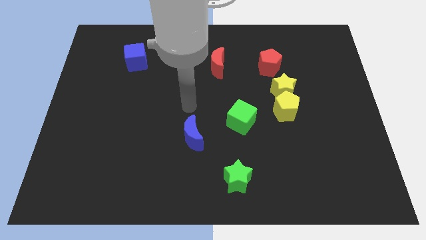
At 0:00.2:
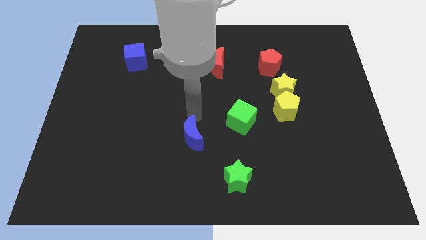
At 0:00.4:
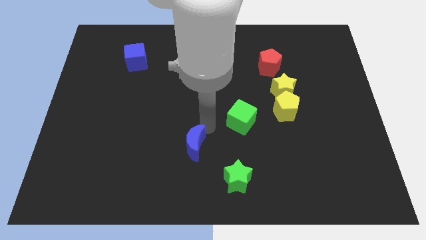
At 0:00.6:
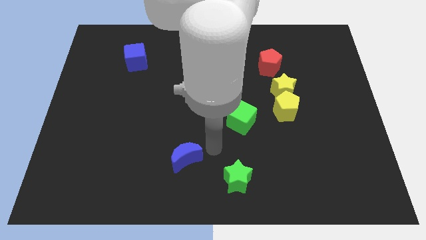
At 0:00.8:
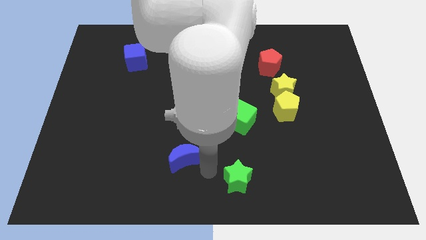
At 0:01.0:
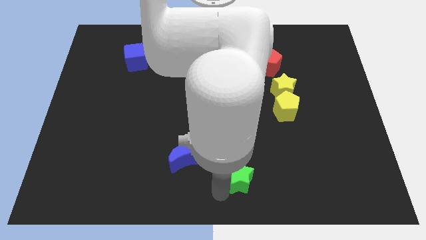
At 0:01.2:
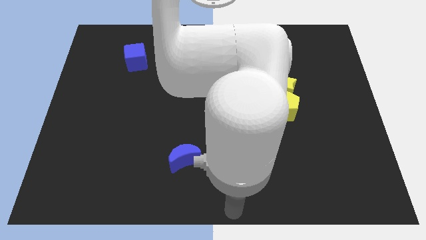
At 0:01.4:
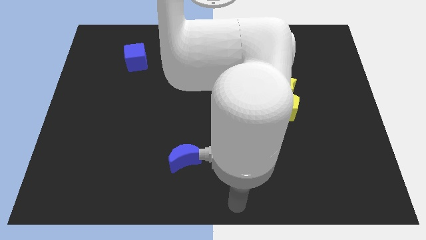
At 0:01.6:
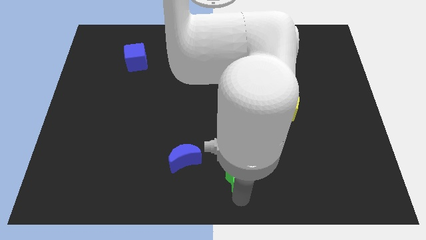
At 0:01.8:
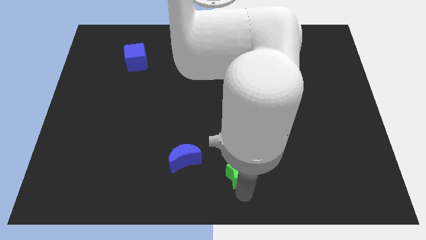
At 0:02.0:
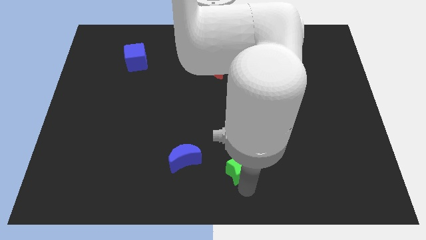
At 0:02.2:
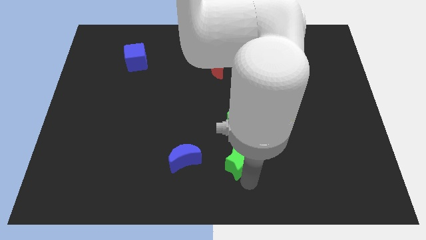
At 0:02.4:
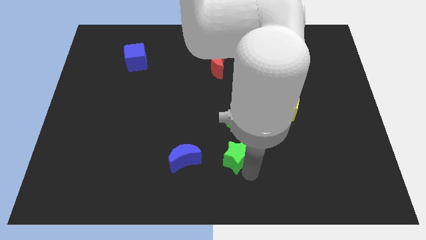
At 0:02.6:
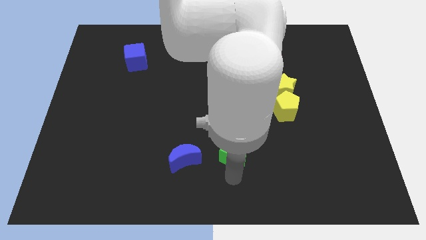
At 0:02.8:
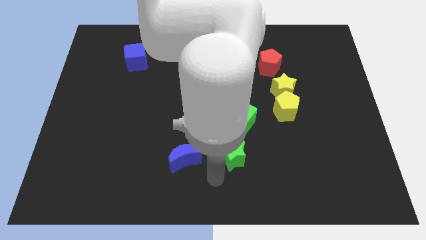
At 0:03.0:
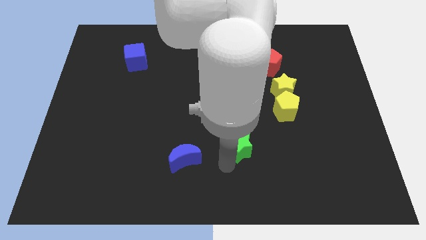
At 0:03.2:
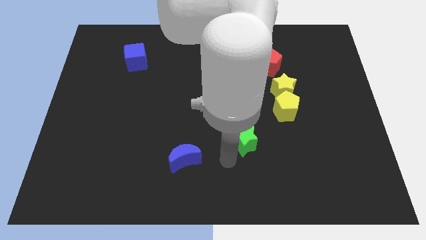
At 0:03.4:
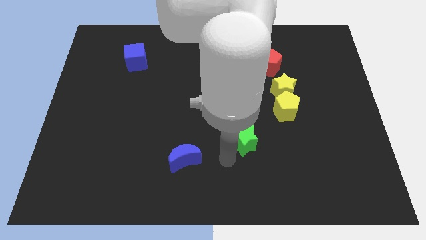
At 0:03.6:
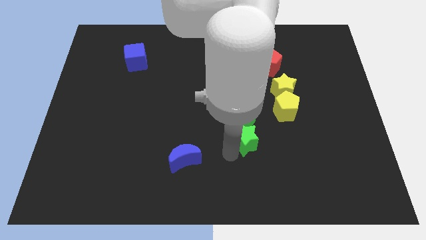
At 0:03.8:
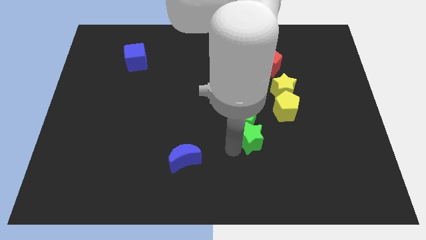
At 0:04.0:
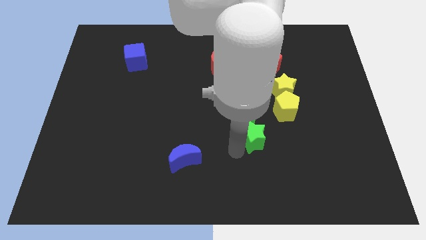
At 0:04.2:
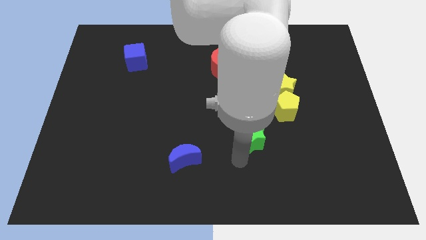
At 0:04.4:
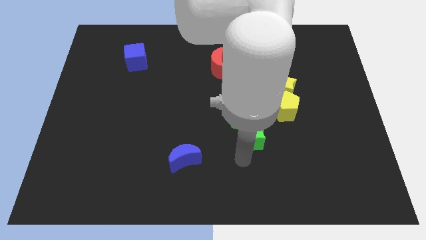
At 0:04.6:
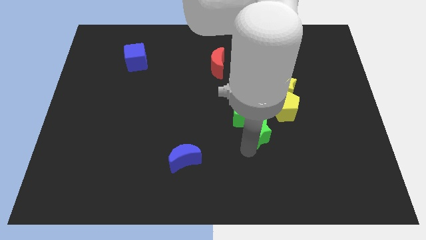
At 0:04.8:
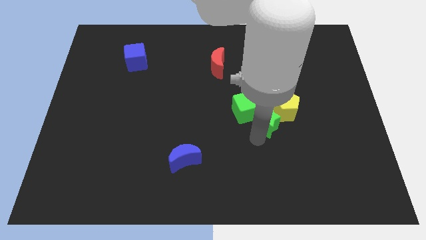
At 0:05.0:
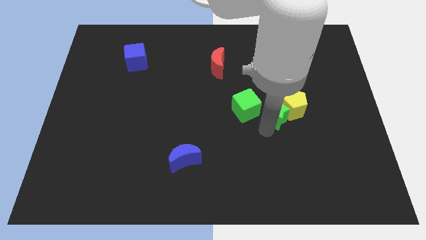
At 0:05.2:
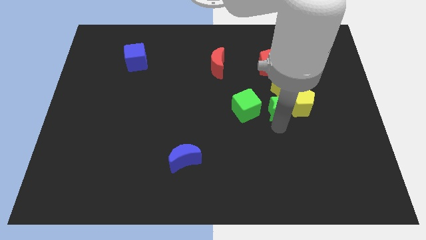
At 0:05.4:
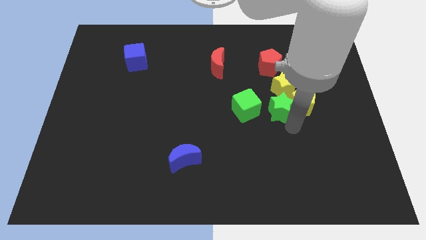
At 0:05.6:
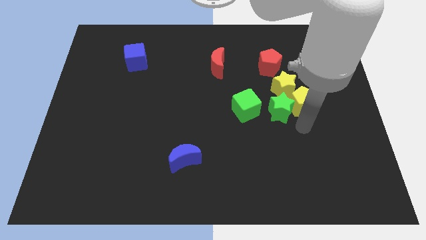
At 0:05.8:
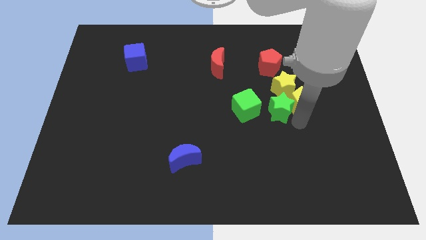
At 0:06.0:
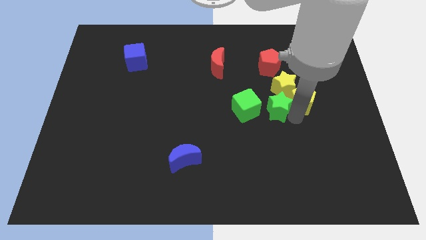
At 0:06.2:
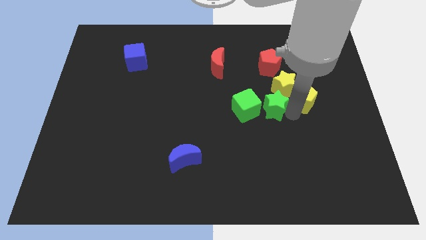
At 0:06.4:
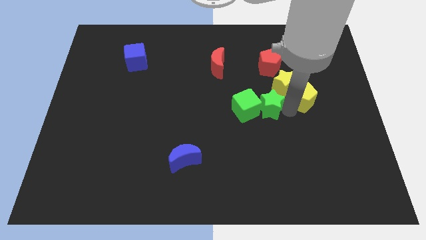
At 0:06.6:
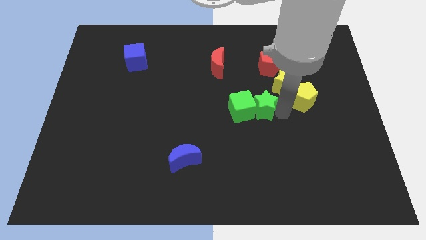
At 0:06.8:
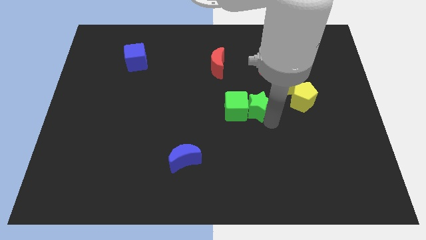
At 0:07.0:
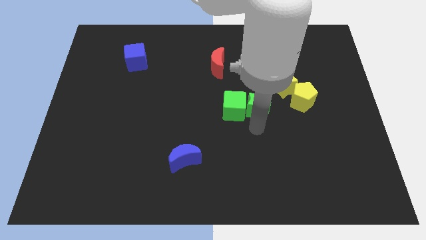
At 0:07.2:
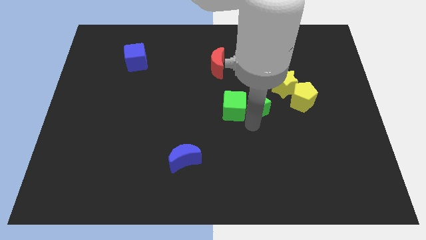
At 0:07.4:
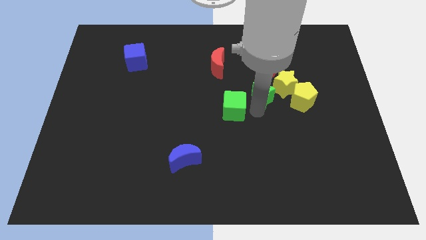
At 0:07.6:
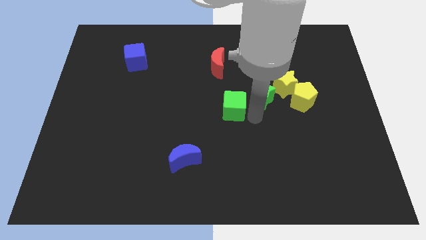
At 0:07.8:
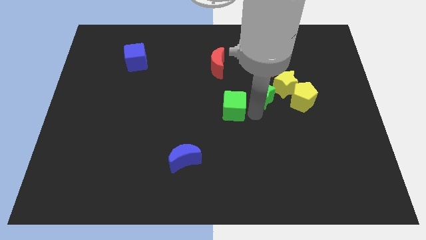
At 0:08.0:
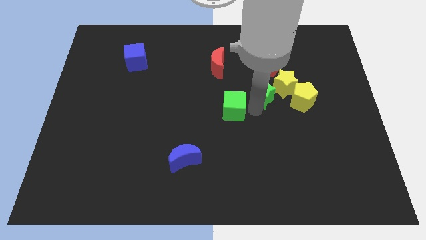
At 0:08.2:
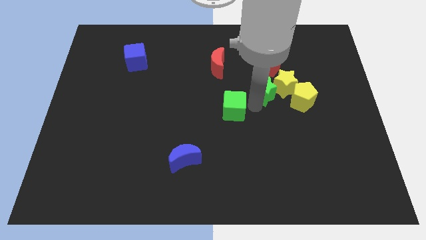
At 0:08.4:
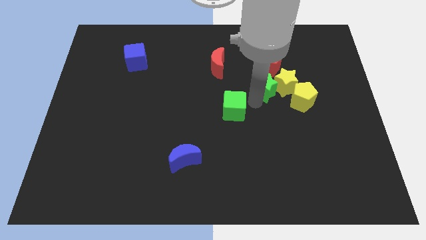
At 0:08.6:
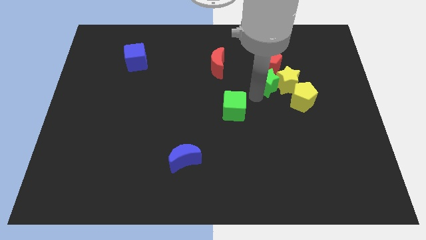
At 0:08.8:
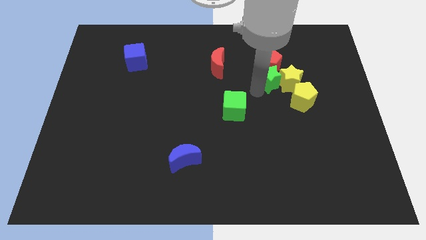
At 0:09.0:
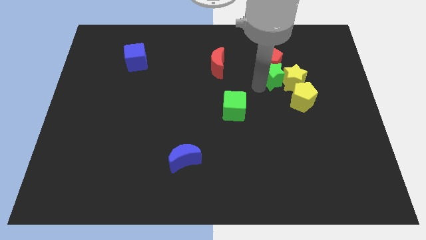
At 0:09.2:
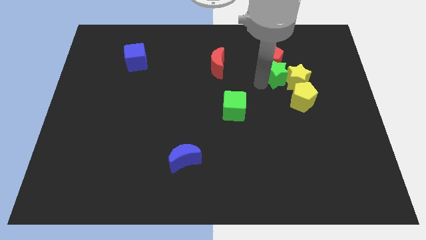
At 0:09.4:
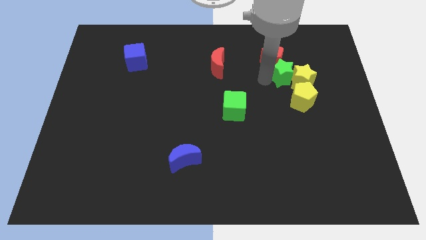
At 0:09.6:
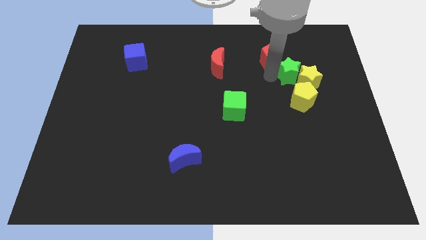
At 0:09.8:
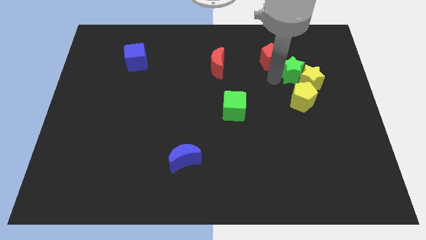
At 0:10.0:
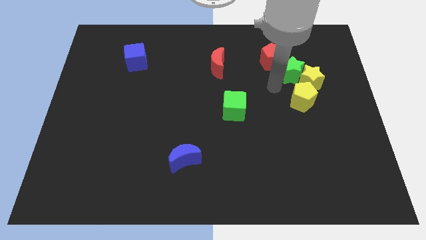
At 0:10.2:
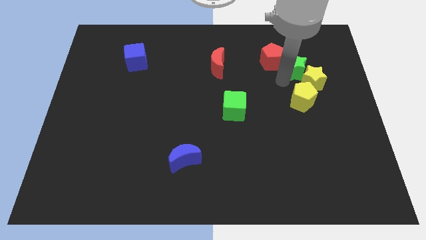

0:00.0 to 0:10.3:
move the green star to the right side of the red pentagon

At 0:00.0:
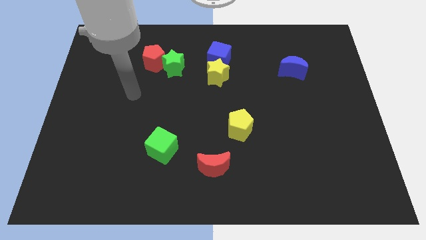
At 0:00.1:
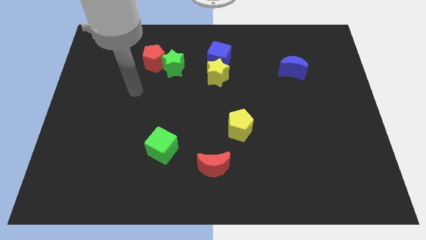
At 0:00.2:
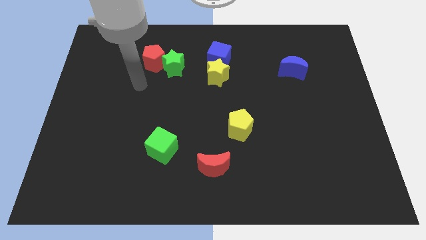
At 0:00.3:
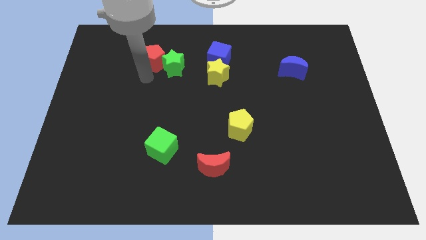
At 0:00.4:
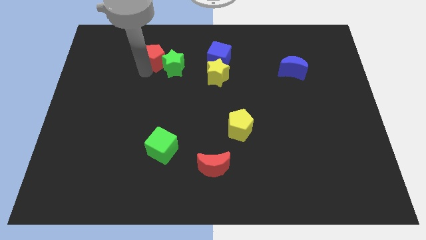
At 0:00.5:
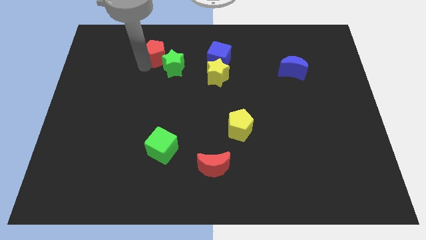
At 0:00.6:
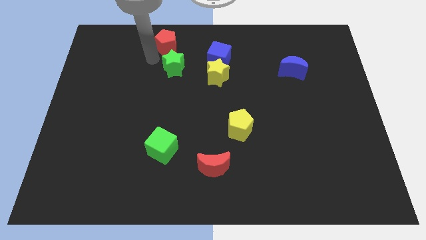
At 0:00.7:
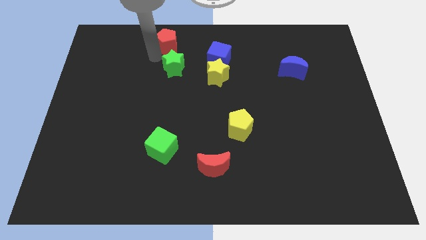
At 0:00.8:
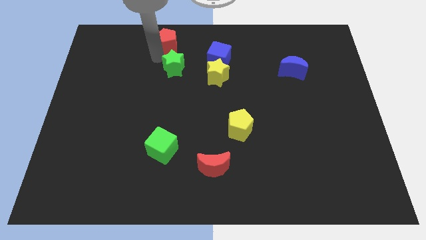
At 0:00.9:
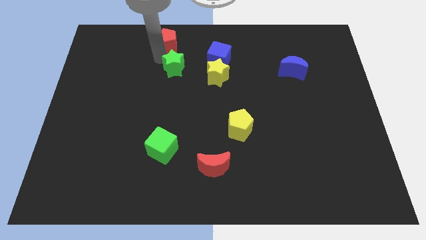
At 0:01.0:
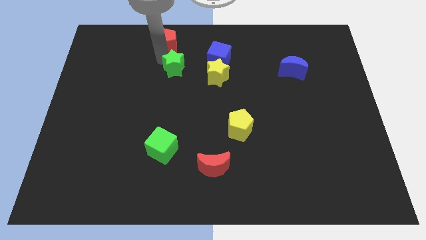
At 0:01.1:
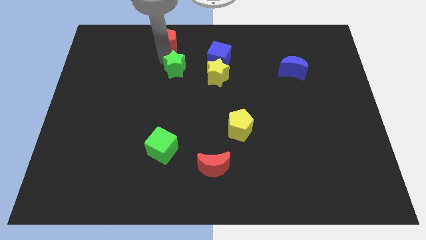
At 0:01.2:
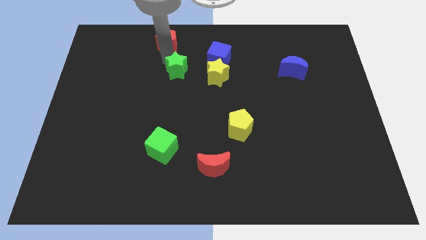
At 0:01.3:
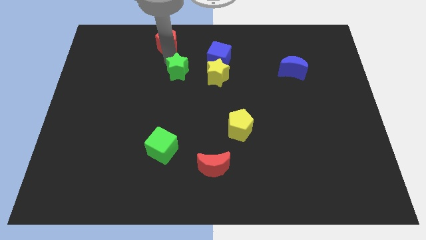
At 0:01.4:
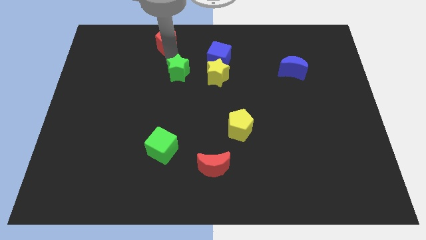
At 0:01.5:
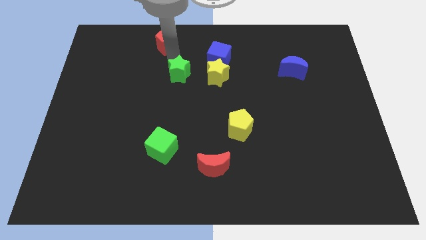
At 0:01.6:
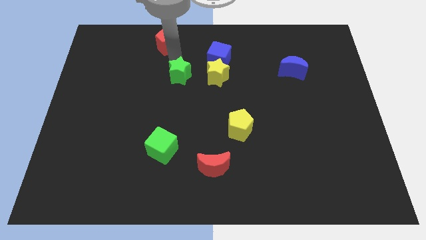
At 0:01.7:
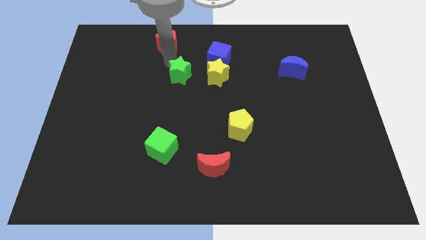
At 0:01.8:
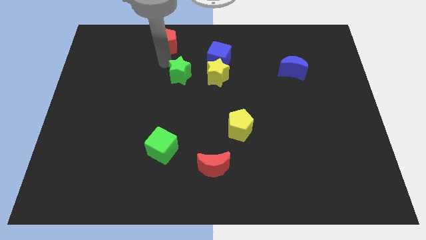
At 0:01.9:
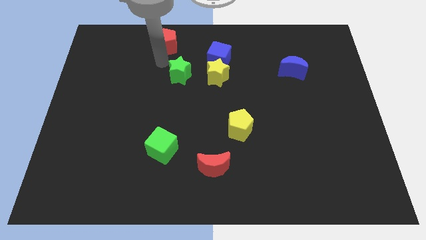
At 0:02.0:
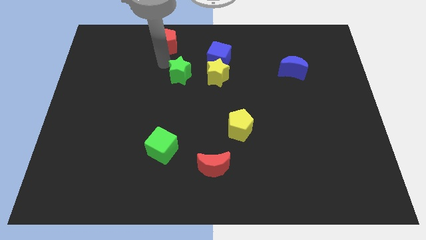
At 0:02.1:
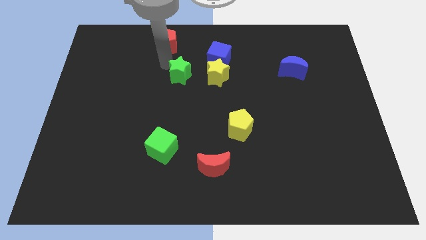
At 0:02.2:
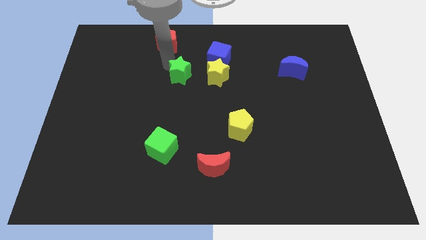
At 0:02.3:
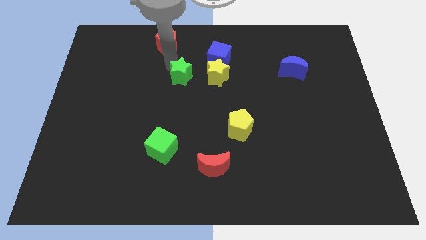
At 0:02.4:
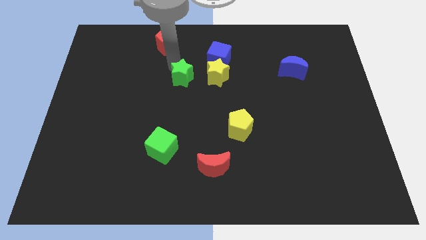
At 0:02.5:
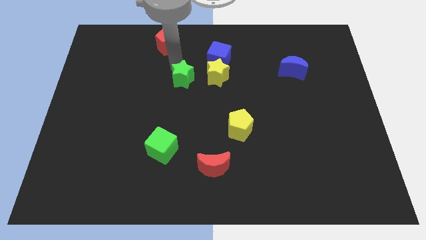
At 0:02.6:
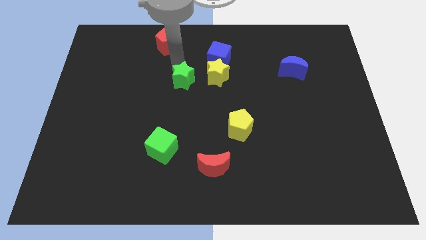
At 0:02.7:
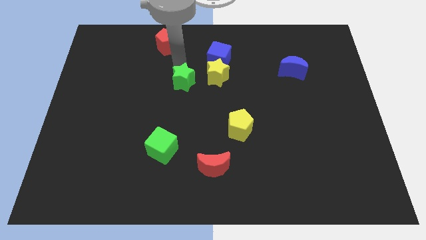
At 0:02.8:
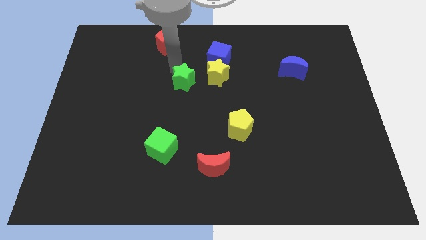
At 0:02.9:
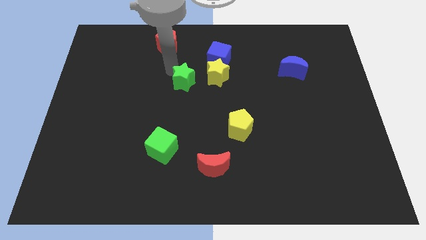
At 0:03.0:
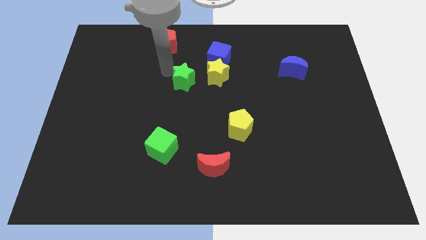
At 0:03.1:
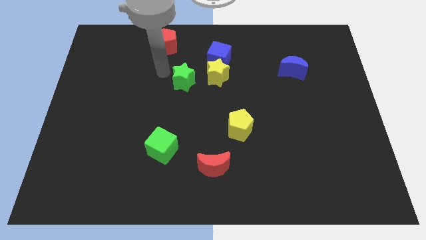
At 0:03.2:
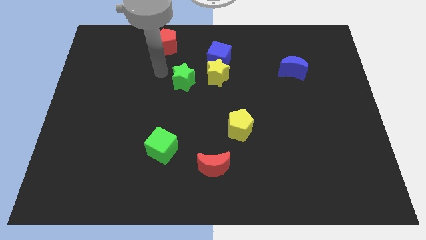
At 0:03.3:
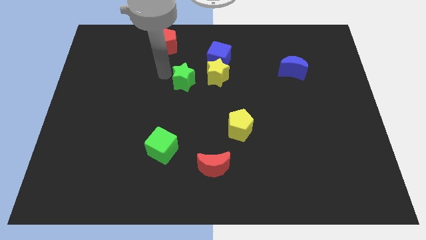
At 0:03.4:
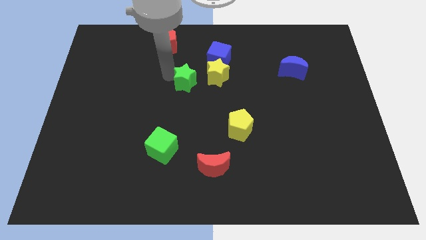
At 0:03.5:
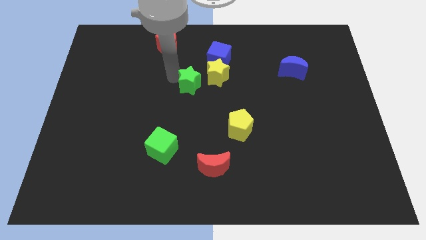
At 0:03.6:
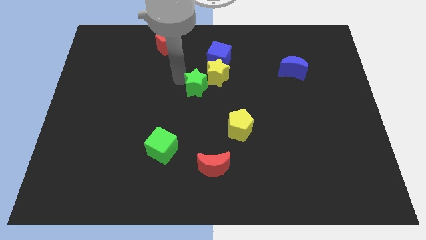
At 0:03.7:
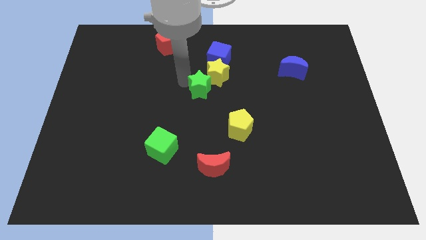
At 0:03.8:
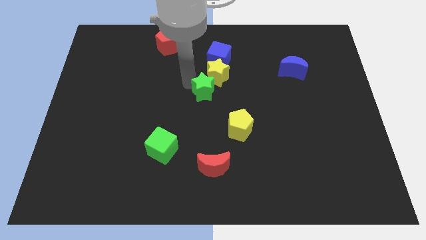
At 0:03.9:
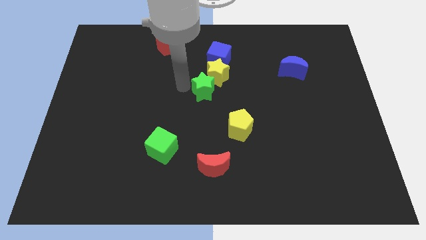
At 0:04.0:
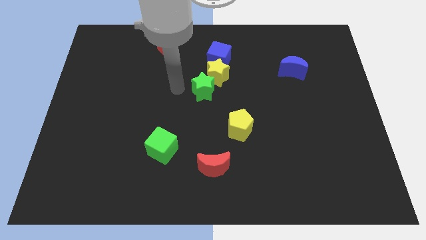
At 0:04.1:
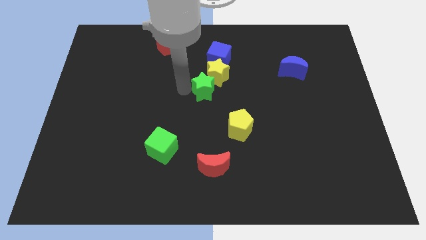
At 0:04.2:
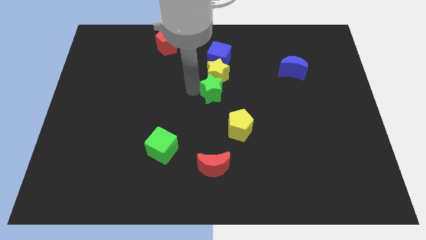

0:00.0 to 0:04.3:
move the green star to the bottom right of the yellow star
